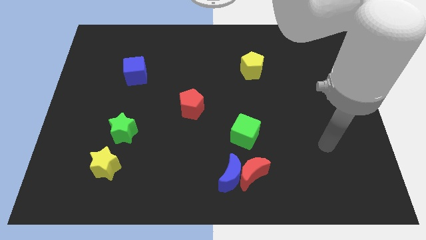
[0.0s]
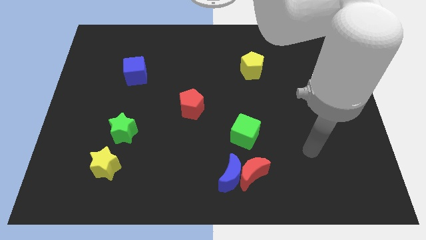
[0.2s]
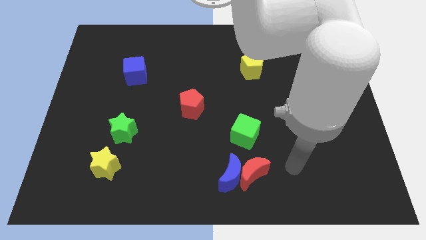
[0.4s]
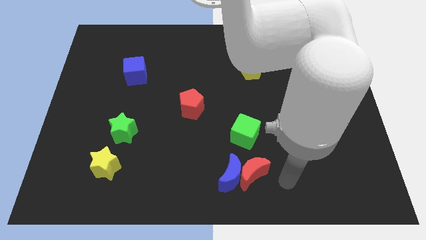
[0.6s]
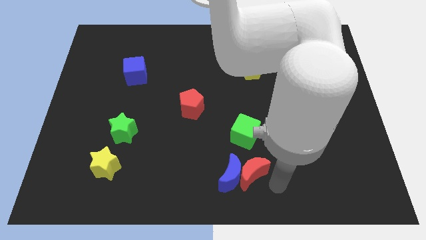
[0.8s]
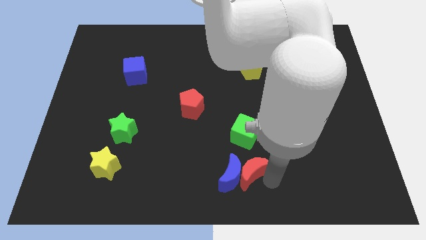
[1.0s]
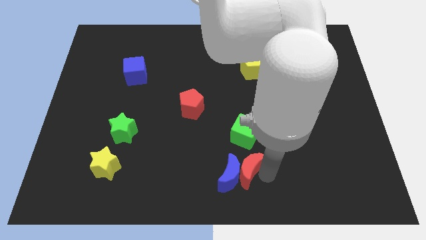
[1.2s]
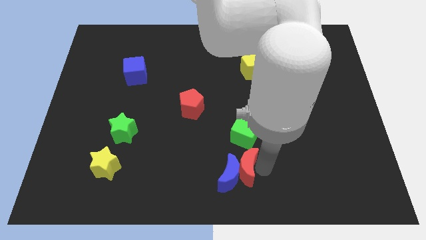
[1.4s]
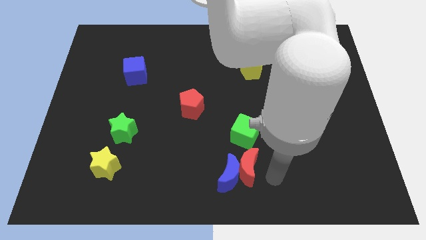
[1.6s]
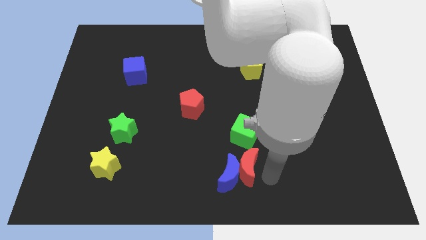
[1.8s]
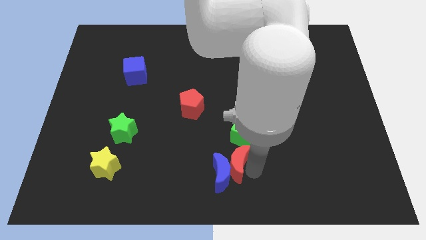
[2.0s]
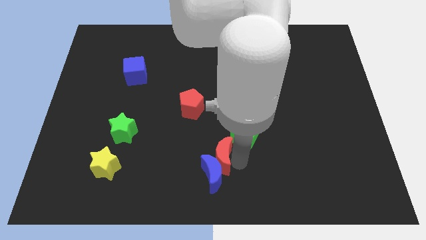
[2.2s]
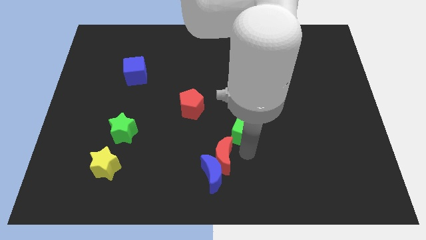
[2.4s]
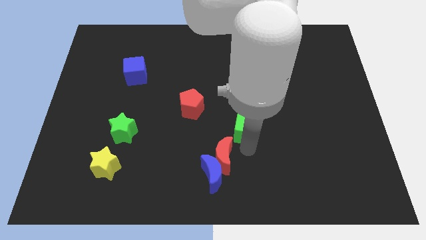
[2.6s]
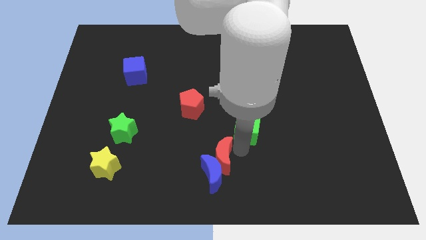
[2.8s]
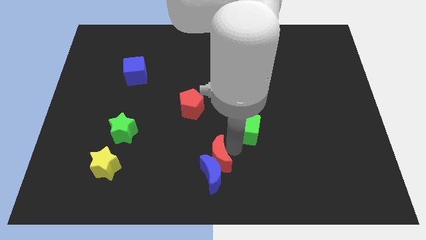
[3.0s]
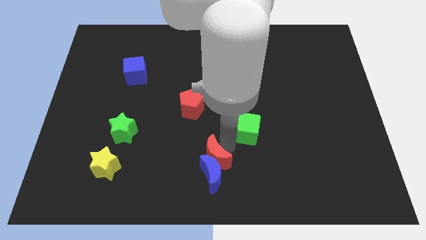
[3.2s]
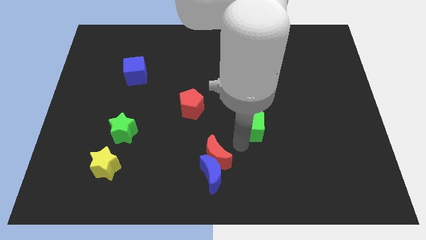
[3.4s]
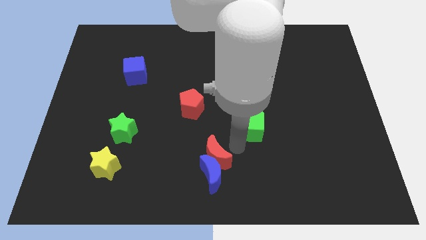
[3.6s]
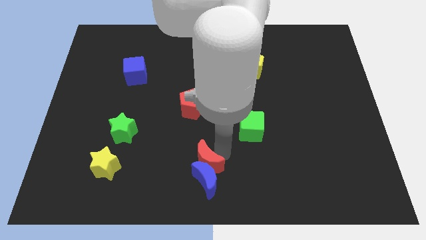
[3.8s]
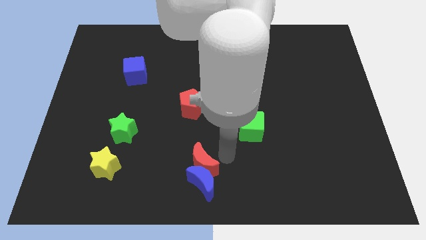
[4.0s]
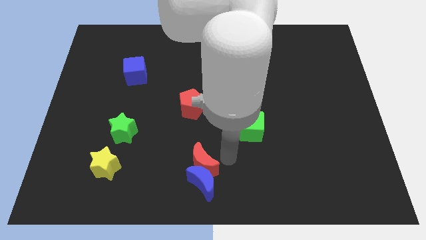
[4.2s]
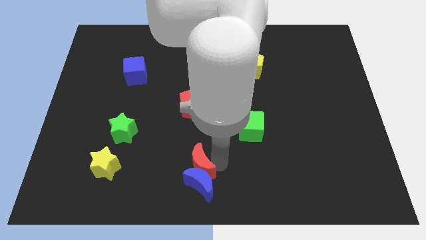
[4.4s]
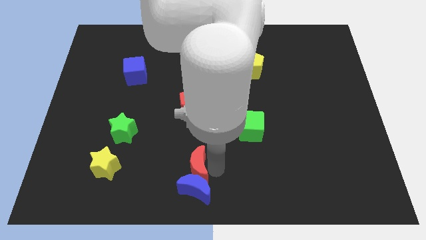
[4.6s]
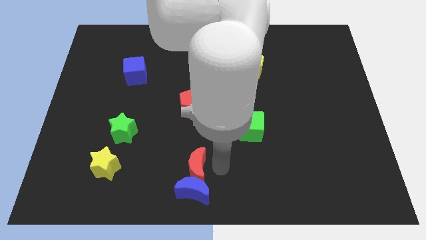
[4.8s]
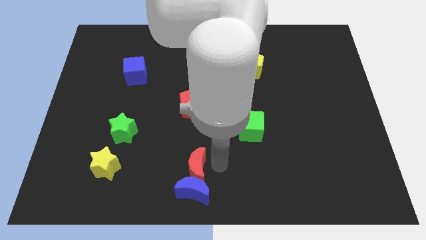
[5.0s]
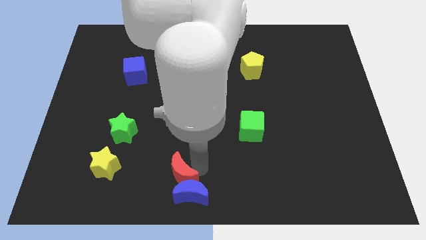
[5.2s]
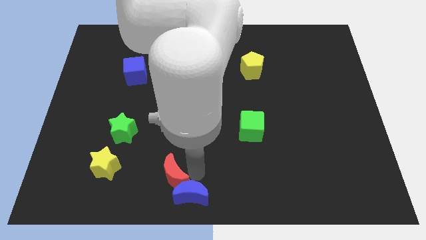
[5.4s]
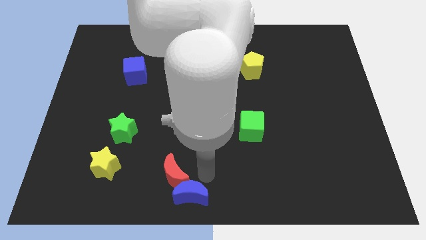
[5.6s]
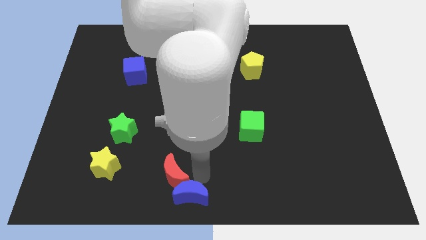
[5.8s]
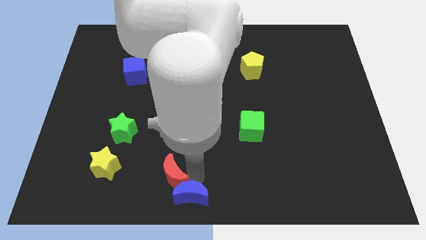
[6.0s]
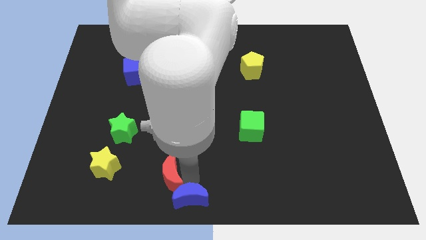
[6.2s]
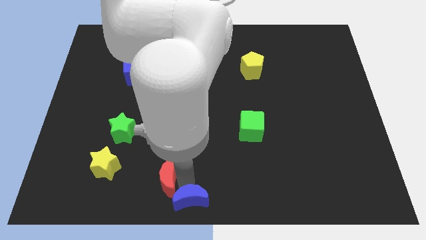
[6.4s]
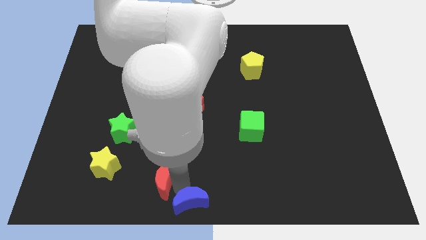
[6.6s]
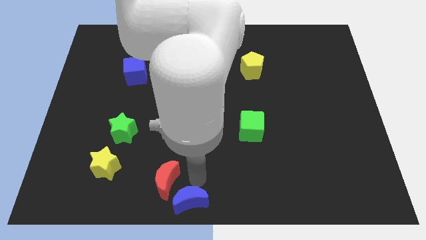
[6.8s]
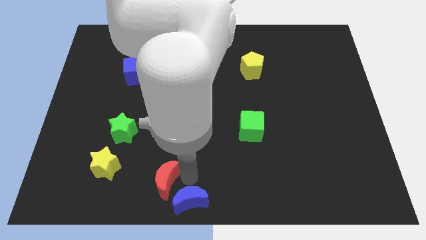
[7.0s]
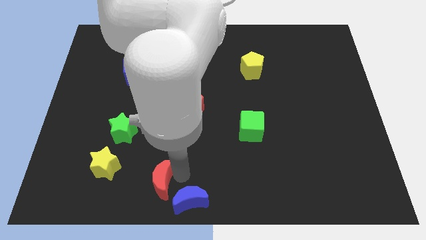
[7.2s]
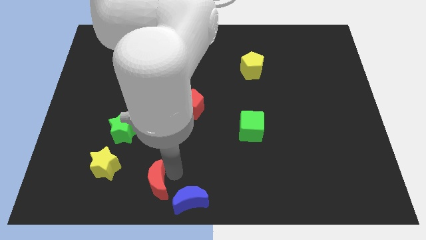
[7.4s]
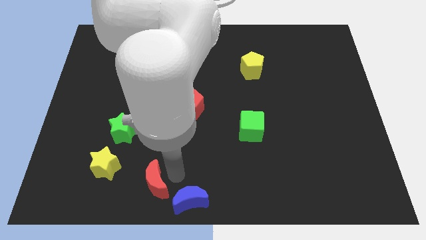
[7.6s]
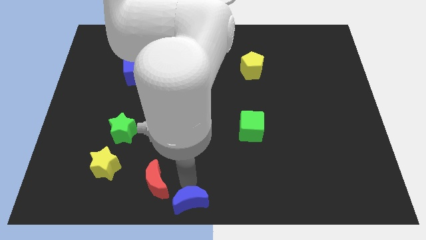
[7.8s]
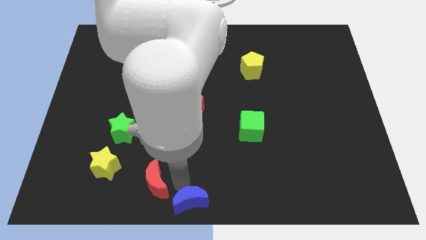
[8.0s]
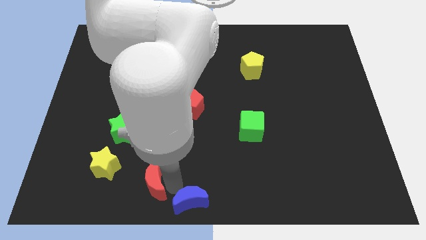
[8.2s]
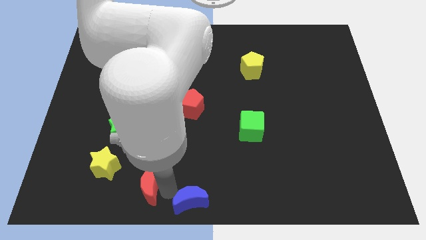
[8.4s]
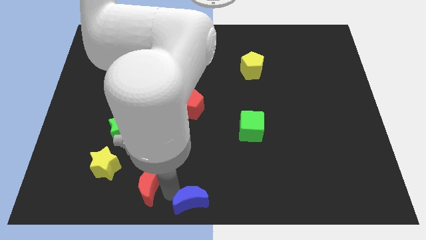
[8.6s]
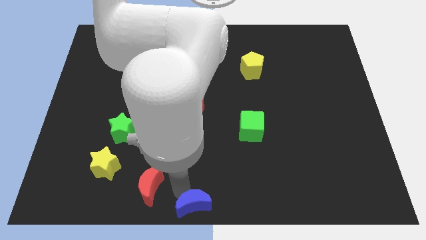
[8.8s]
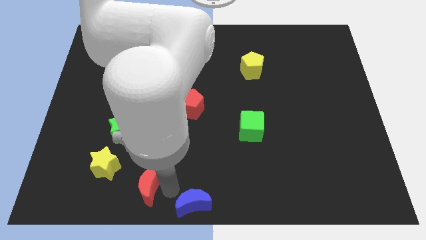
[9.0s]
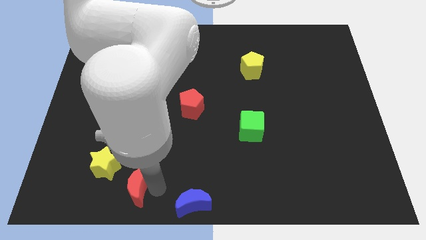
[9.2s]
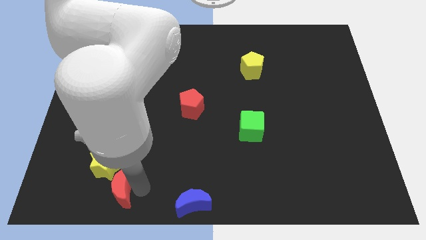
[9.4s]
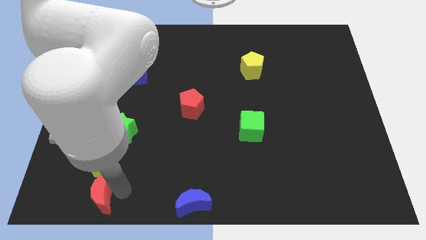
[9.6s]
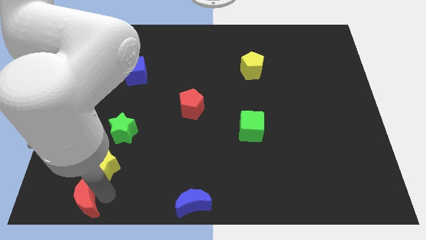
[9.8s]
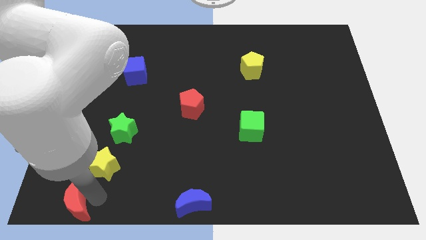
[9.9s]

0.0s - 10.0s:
slide the red moon to the bottom left
